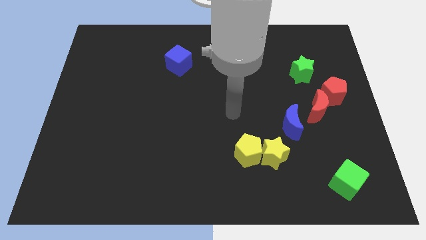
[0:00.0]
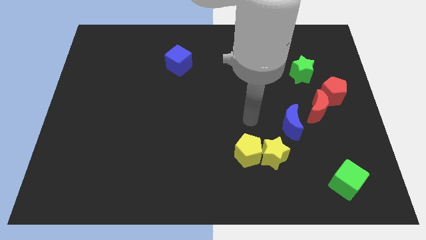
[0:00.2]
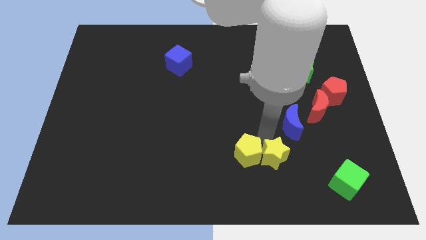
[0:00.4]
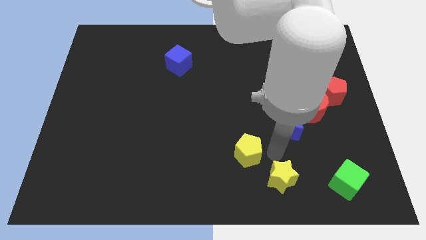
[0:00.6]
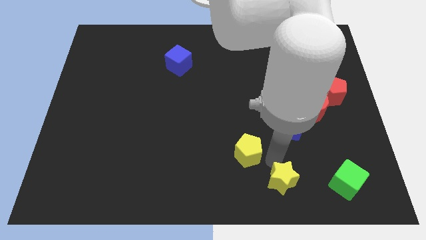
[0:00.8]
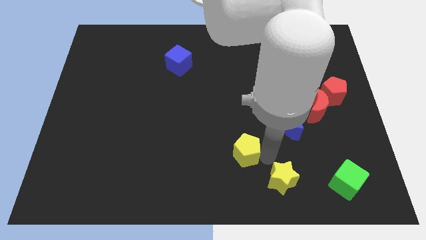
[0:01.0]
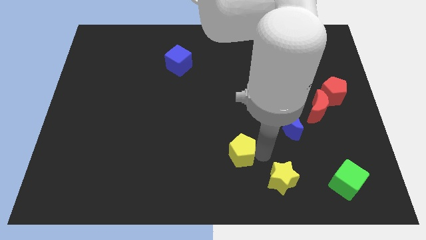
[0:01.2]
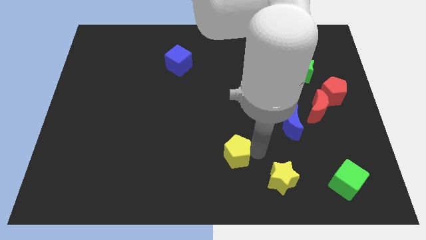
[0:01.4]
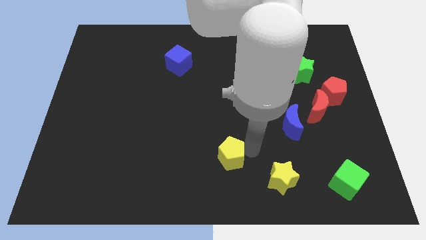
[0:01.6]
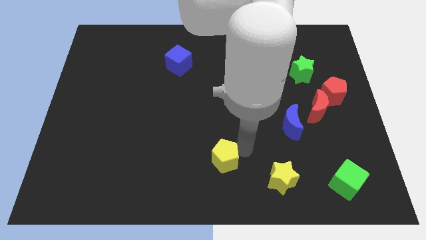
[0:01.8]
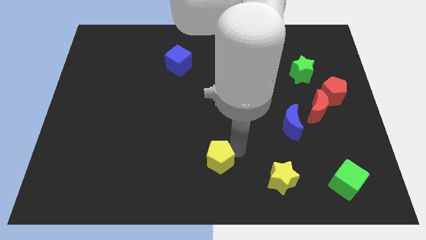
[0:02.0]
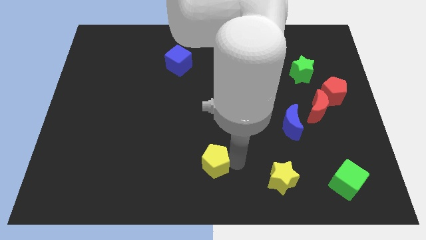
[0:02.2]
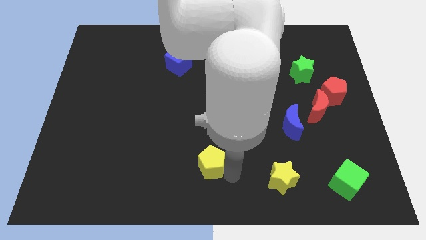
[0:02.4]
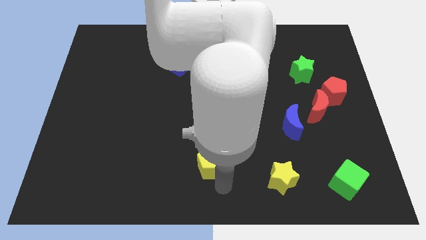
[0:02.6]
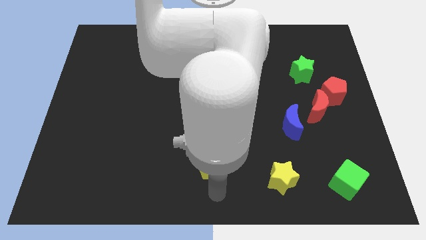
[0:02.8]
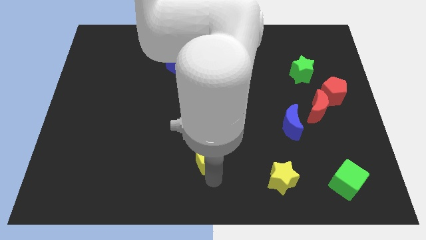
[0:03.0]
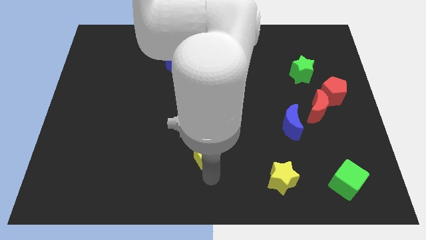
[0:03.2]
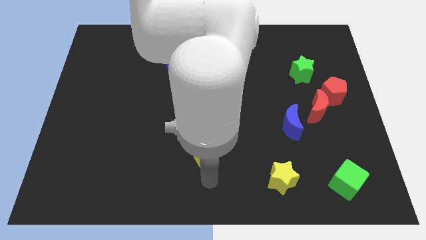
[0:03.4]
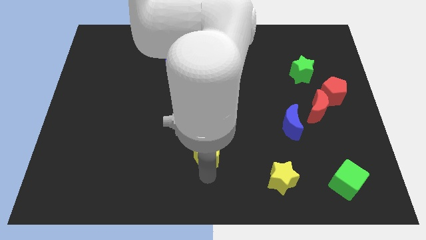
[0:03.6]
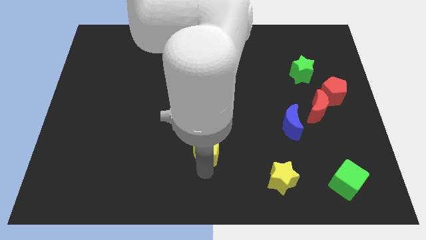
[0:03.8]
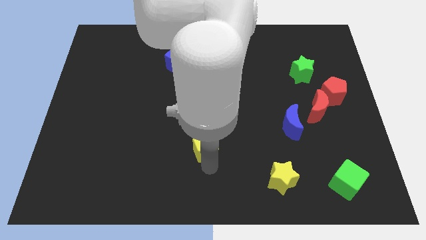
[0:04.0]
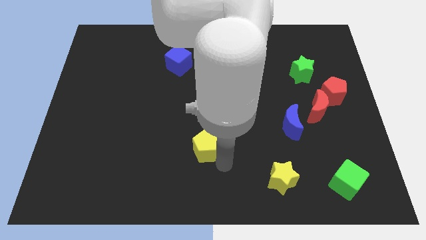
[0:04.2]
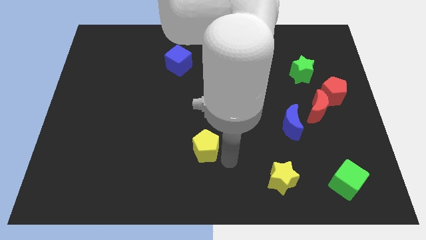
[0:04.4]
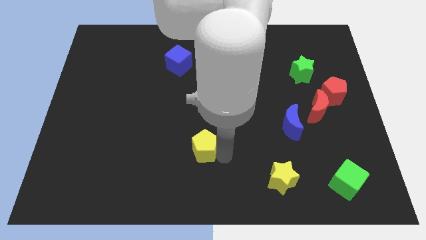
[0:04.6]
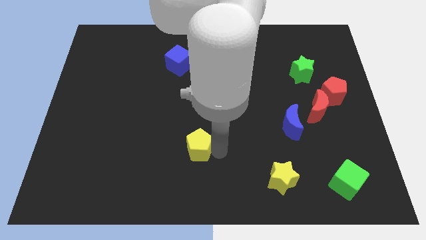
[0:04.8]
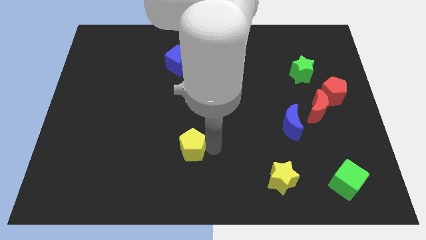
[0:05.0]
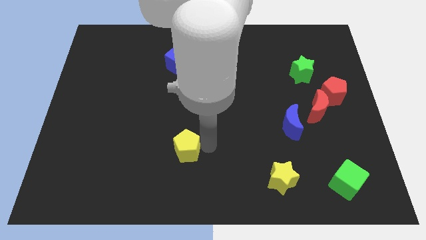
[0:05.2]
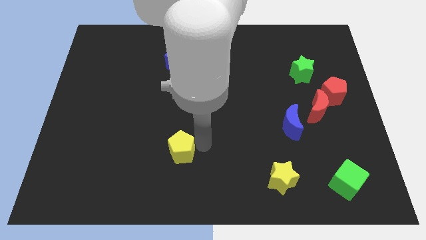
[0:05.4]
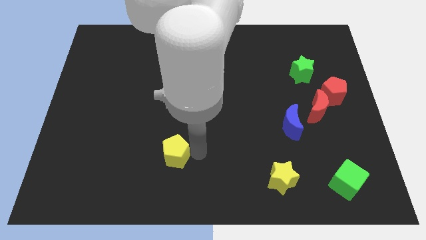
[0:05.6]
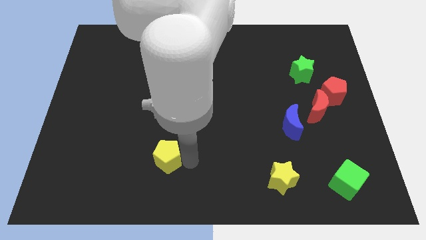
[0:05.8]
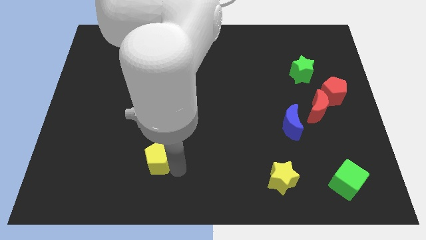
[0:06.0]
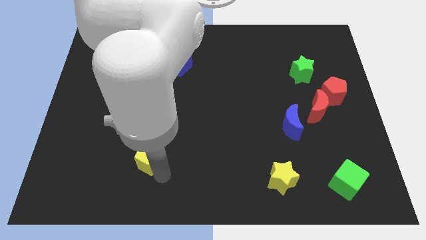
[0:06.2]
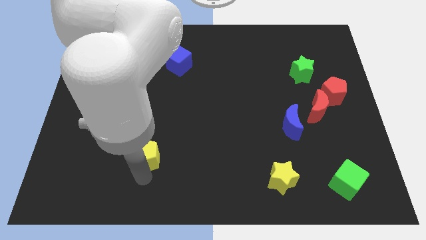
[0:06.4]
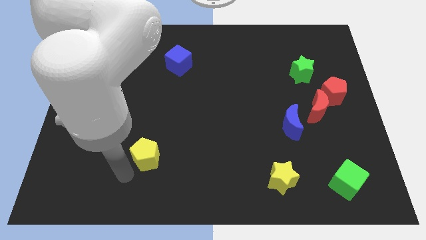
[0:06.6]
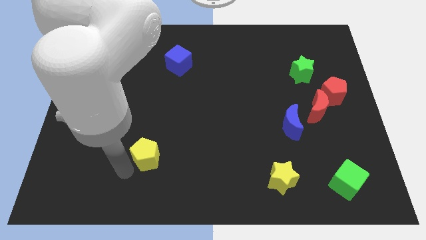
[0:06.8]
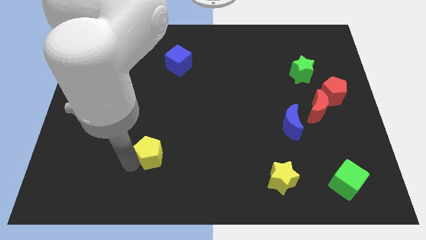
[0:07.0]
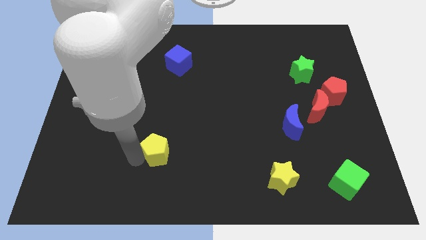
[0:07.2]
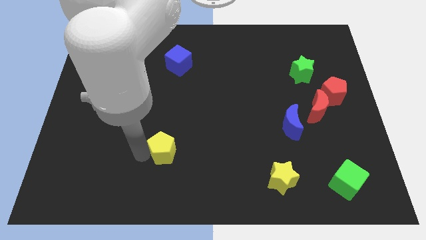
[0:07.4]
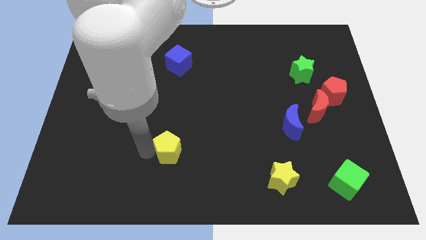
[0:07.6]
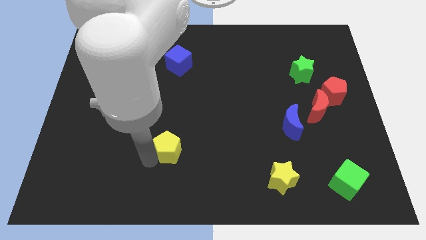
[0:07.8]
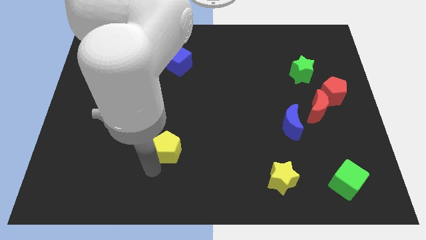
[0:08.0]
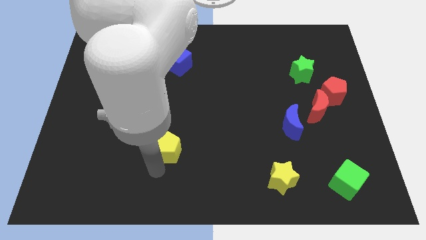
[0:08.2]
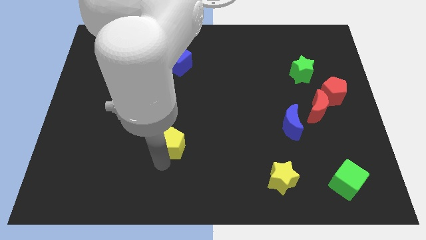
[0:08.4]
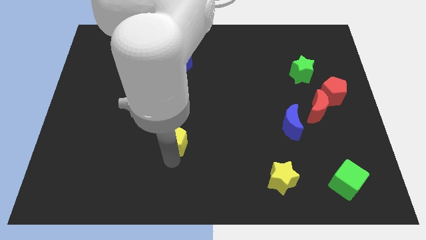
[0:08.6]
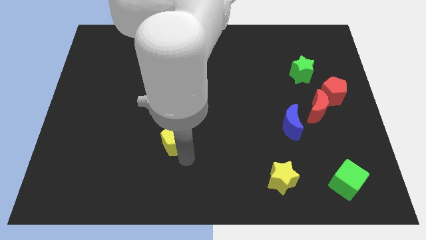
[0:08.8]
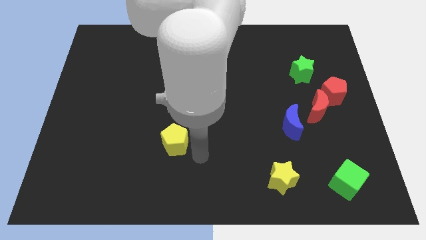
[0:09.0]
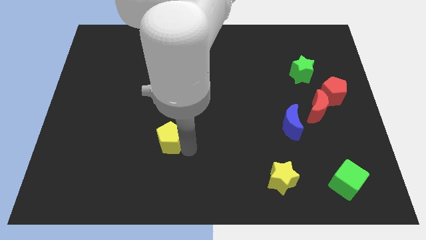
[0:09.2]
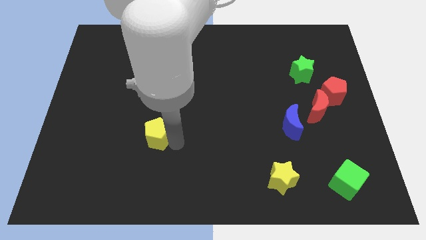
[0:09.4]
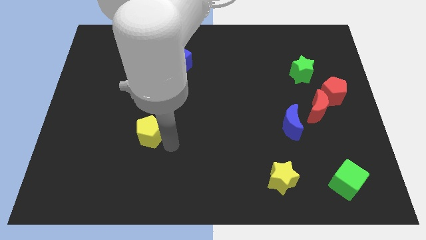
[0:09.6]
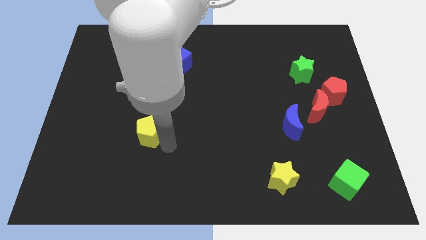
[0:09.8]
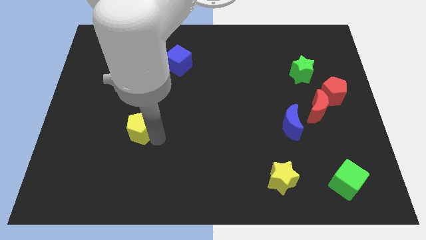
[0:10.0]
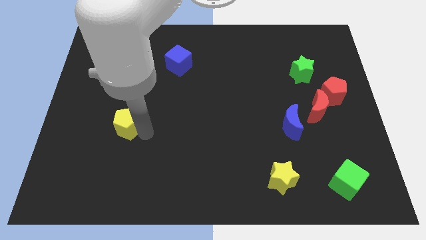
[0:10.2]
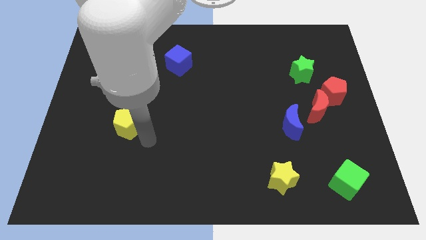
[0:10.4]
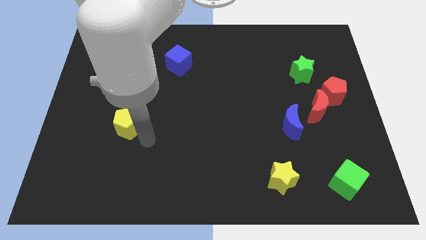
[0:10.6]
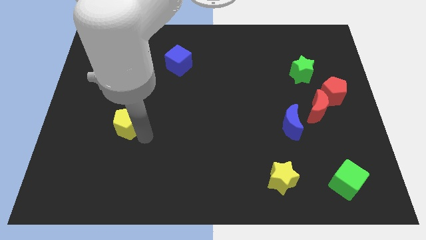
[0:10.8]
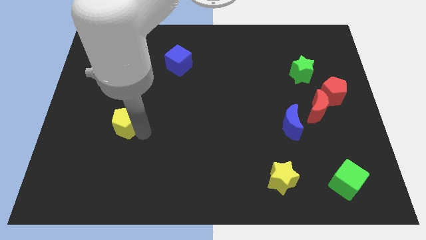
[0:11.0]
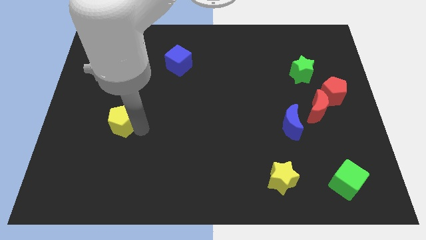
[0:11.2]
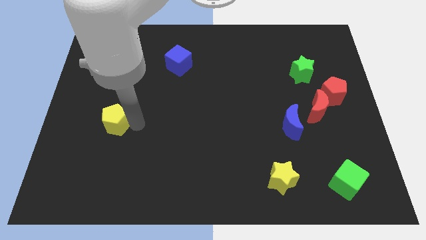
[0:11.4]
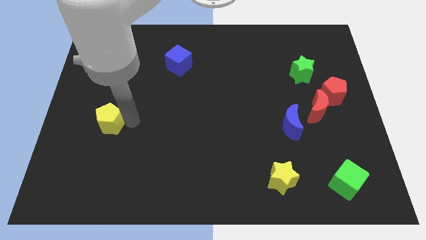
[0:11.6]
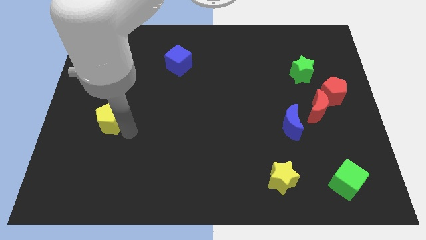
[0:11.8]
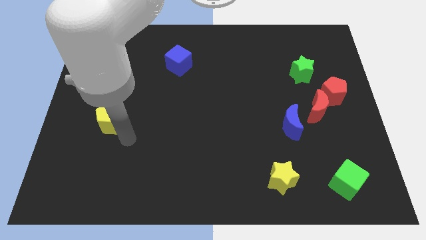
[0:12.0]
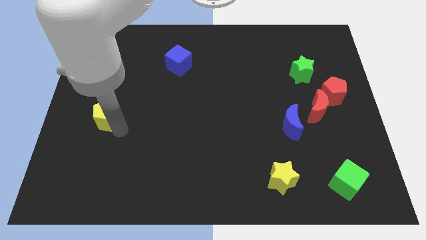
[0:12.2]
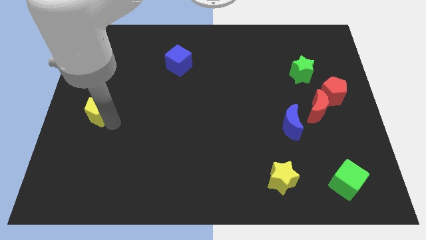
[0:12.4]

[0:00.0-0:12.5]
push the yellow pentagon to the left side of the board

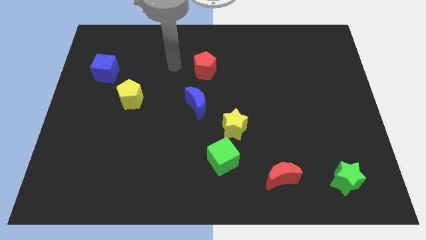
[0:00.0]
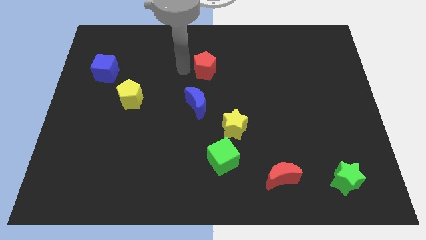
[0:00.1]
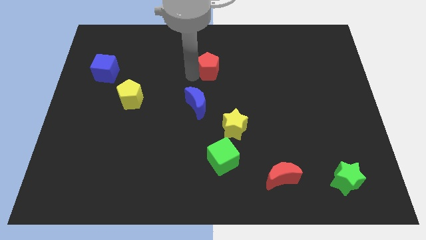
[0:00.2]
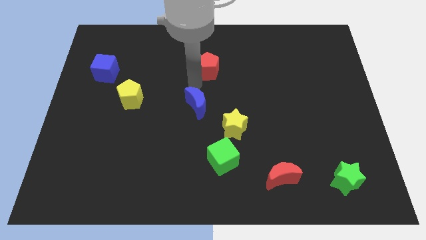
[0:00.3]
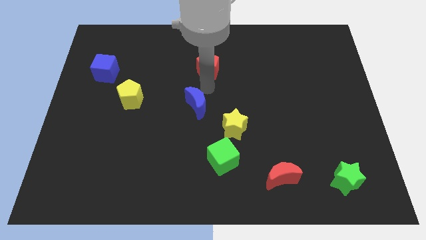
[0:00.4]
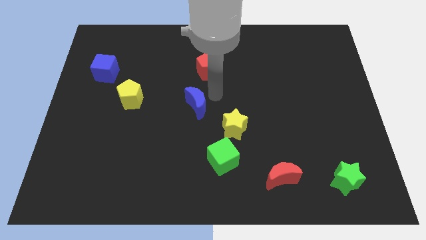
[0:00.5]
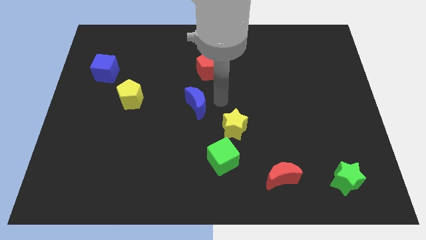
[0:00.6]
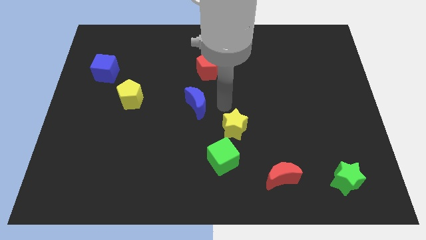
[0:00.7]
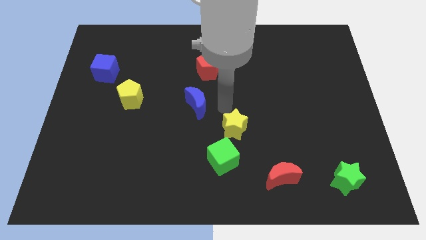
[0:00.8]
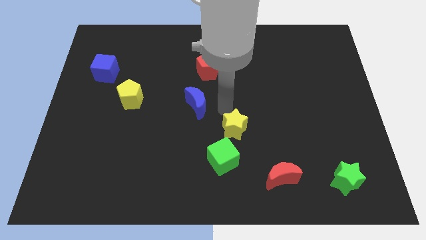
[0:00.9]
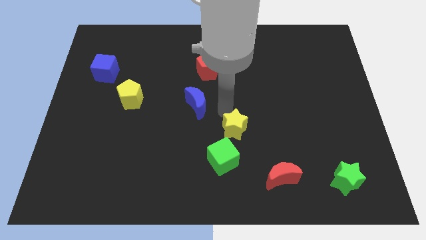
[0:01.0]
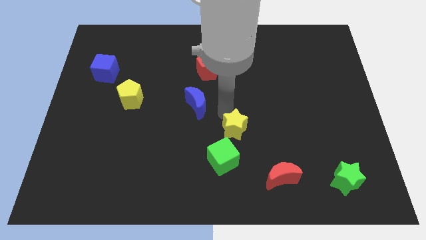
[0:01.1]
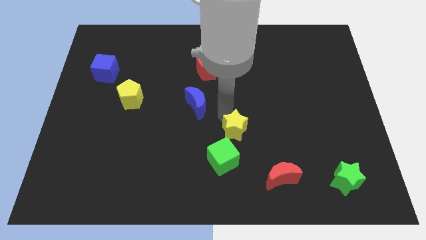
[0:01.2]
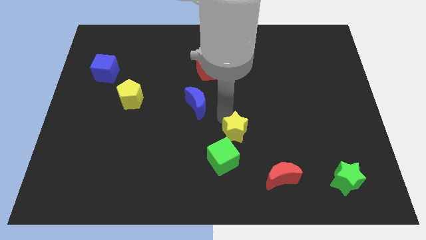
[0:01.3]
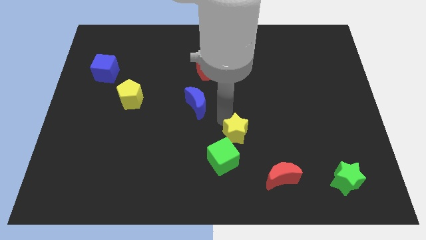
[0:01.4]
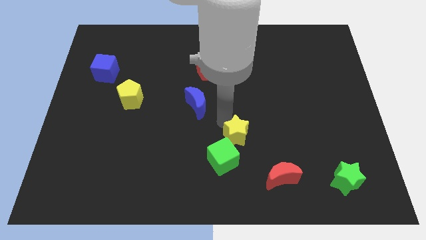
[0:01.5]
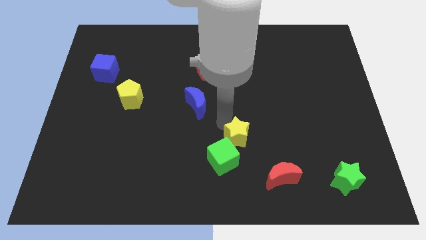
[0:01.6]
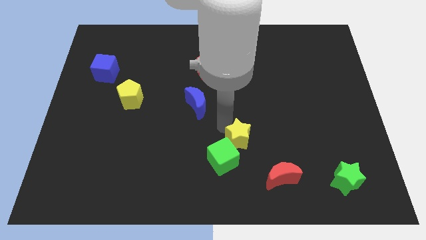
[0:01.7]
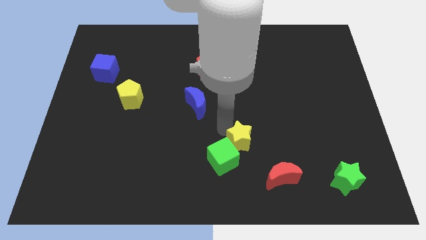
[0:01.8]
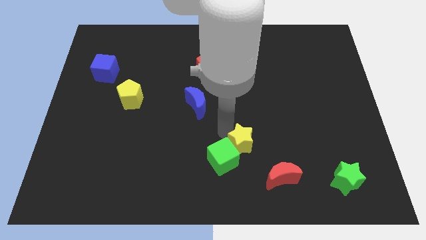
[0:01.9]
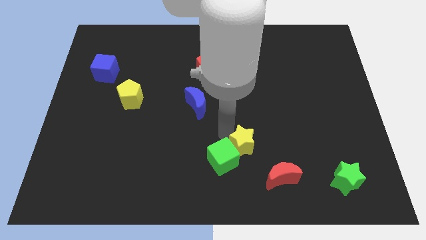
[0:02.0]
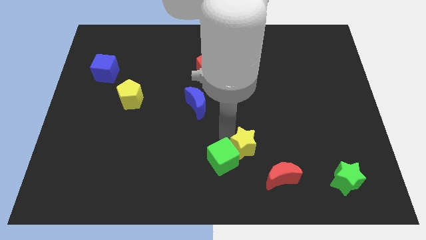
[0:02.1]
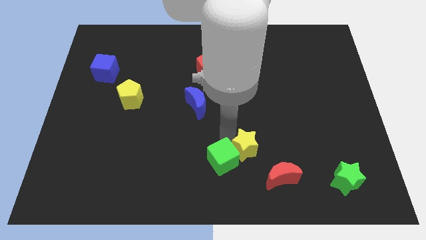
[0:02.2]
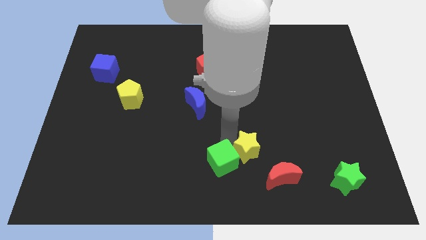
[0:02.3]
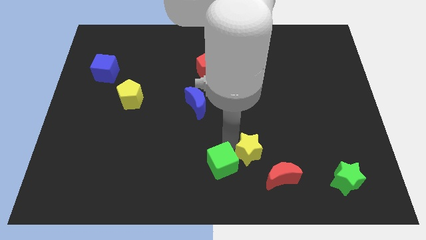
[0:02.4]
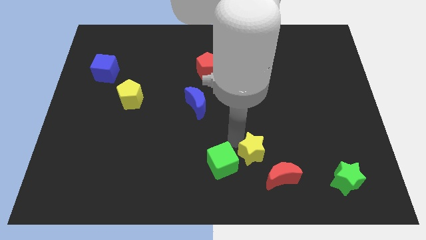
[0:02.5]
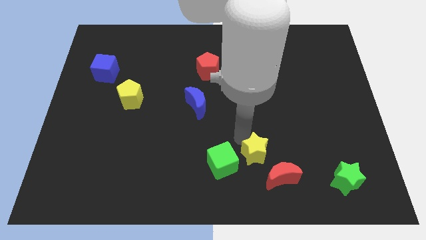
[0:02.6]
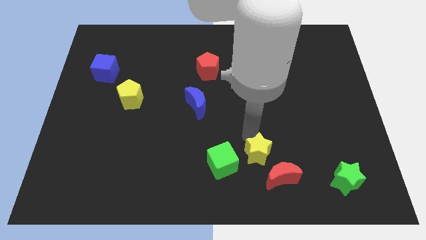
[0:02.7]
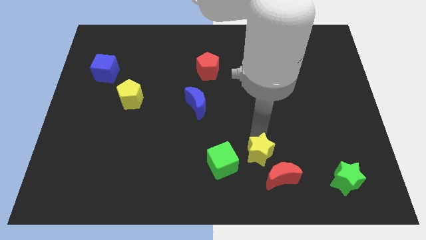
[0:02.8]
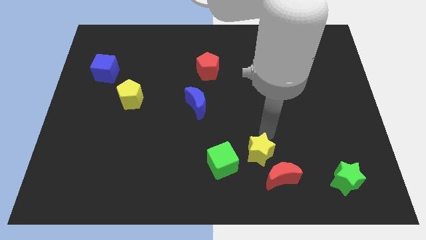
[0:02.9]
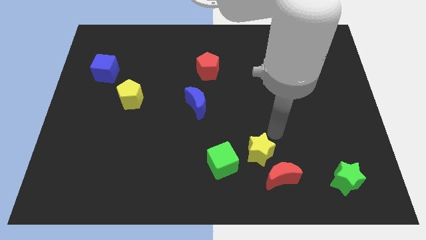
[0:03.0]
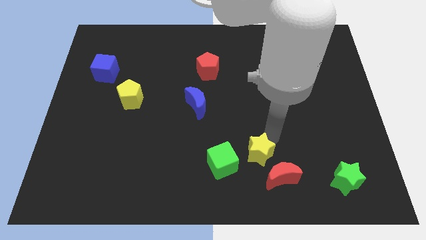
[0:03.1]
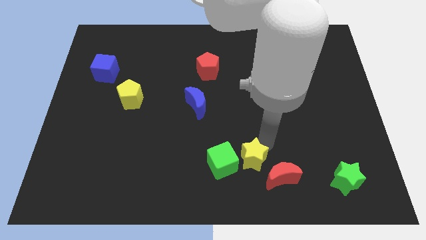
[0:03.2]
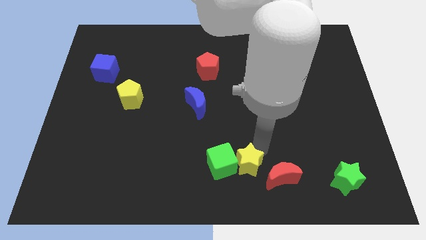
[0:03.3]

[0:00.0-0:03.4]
push the yellow star to the bottom side
